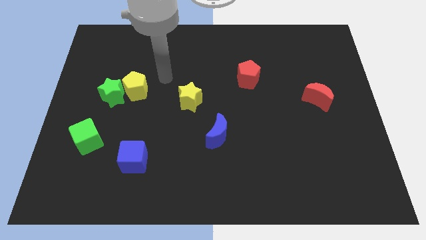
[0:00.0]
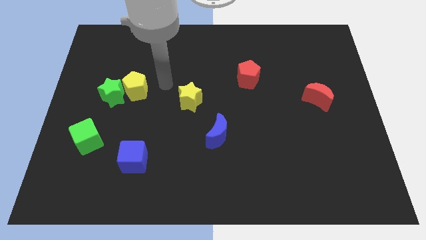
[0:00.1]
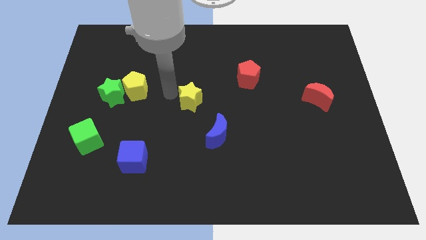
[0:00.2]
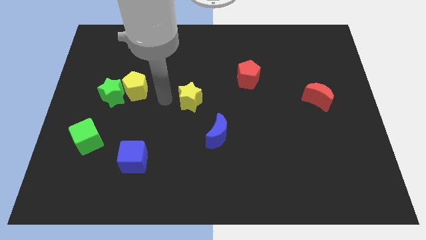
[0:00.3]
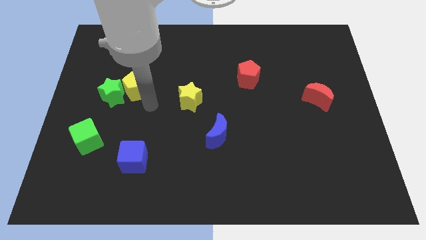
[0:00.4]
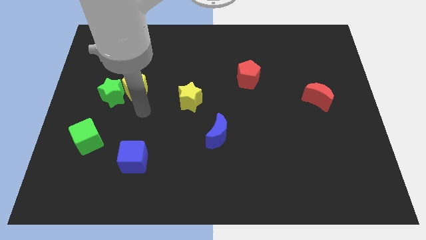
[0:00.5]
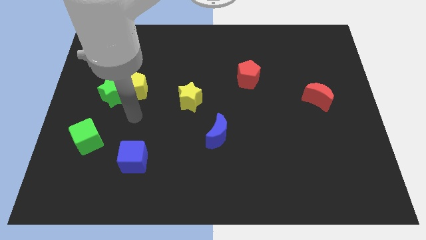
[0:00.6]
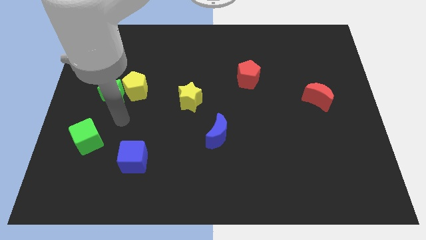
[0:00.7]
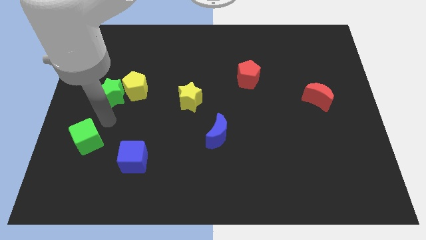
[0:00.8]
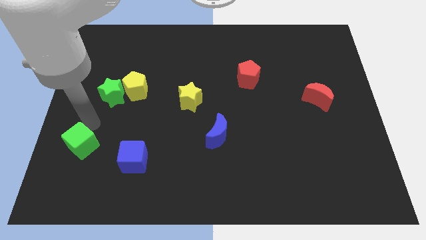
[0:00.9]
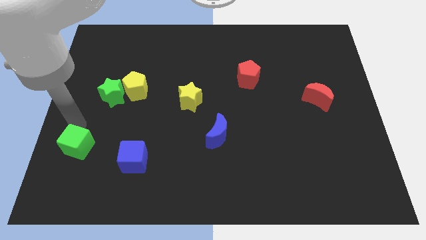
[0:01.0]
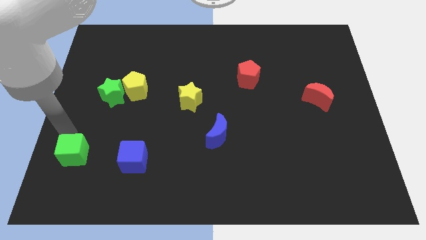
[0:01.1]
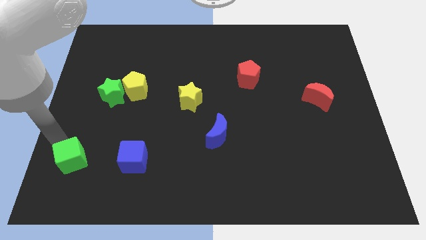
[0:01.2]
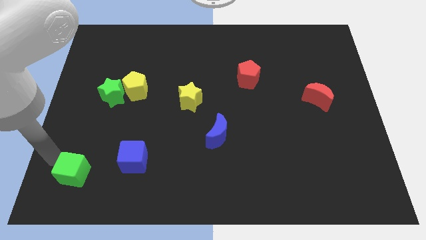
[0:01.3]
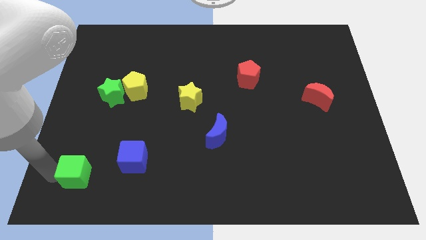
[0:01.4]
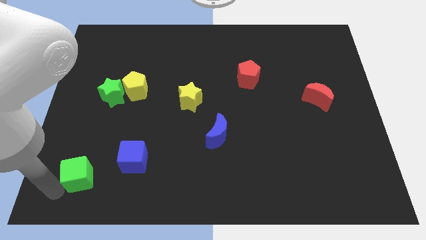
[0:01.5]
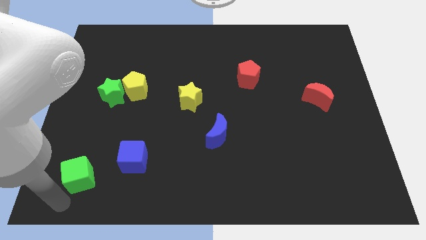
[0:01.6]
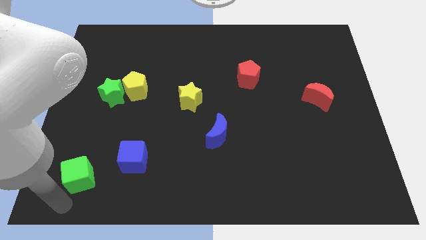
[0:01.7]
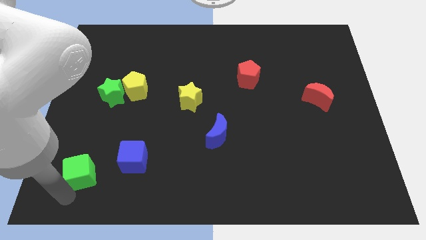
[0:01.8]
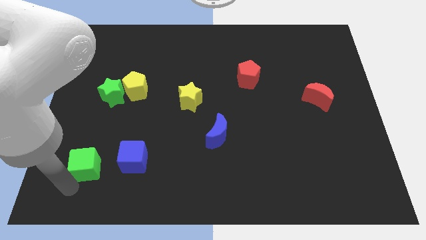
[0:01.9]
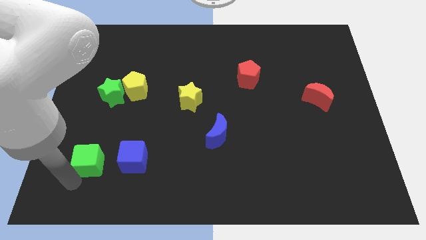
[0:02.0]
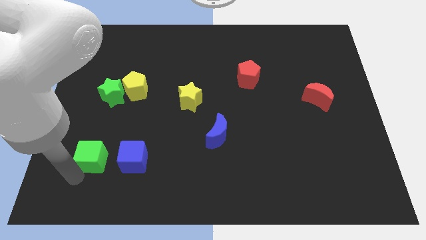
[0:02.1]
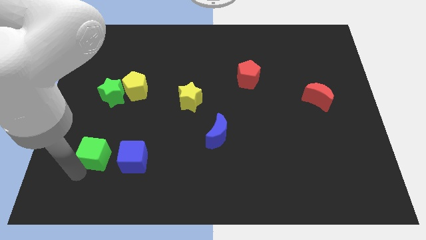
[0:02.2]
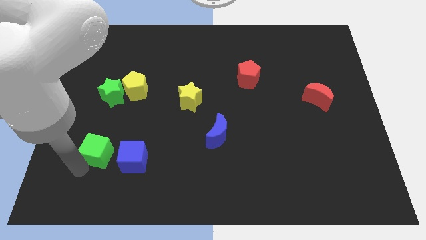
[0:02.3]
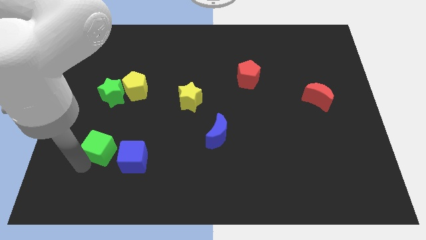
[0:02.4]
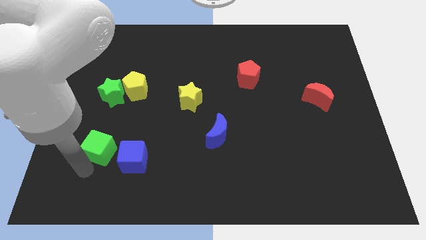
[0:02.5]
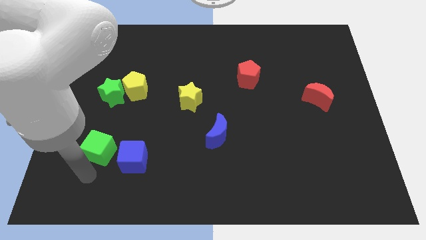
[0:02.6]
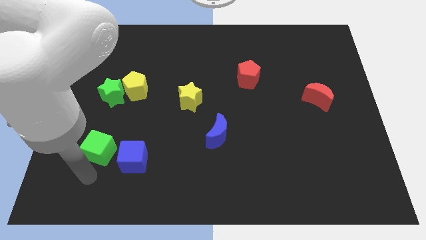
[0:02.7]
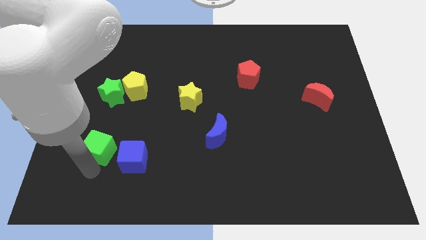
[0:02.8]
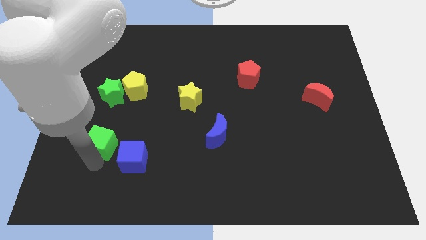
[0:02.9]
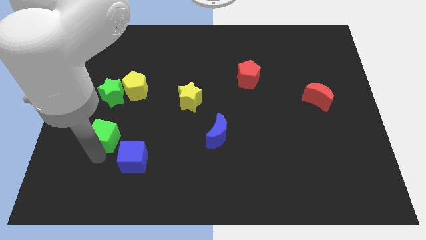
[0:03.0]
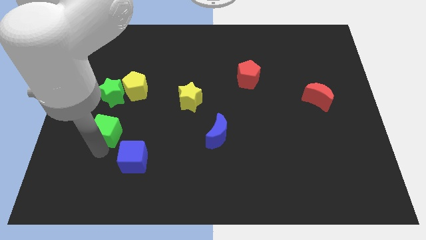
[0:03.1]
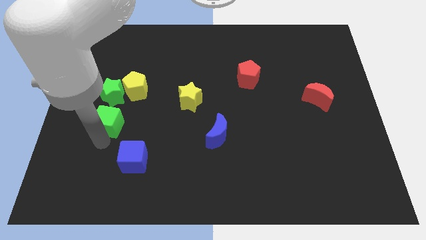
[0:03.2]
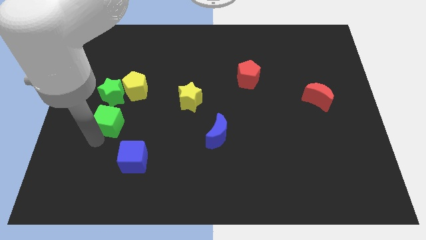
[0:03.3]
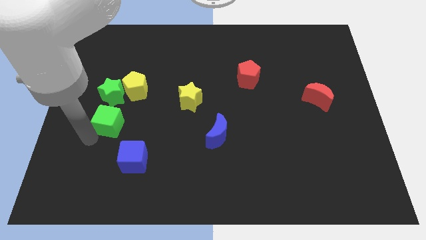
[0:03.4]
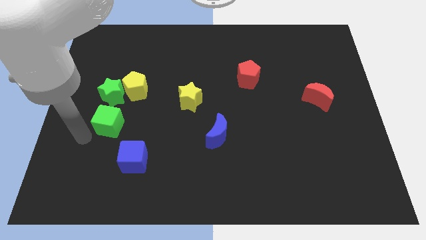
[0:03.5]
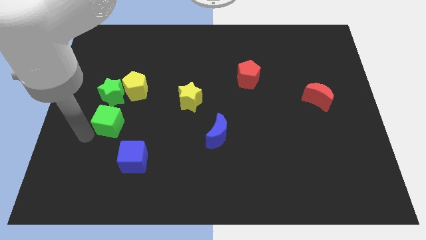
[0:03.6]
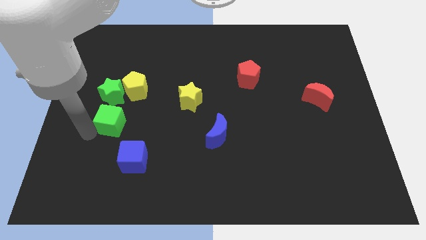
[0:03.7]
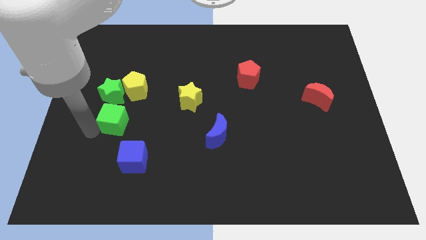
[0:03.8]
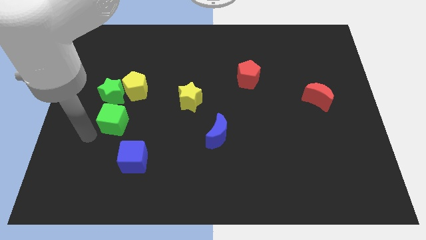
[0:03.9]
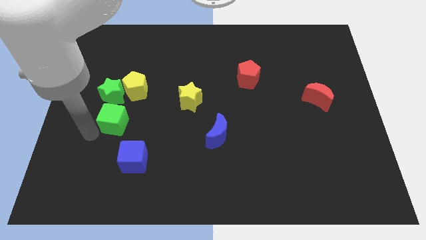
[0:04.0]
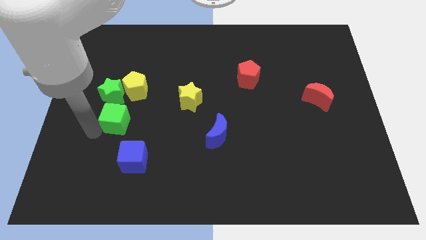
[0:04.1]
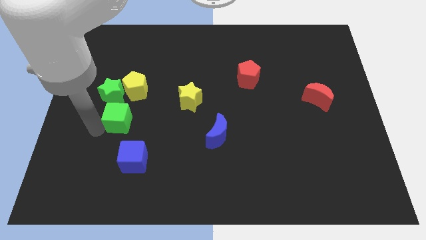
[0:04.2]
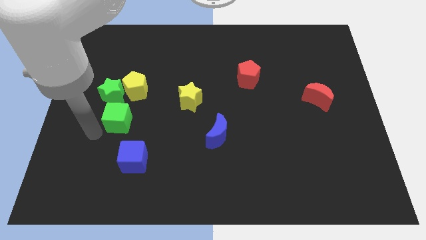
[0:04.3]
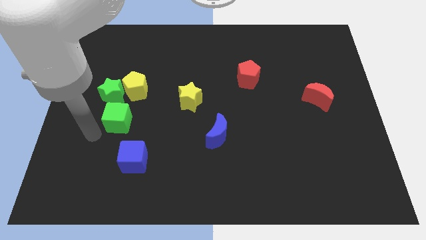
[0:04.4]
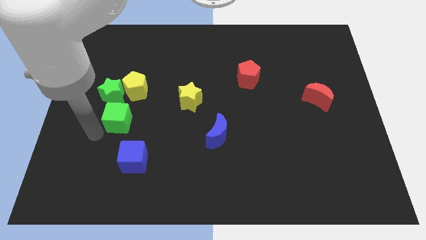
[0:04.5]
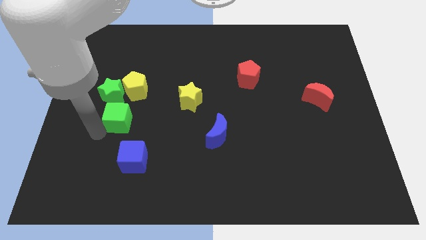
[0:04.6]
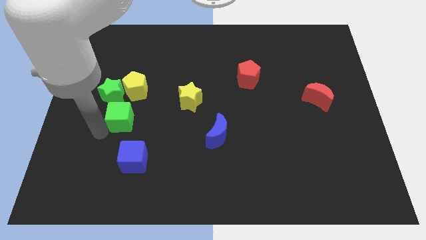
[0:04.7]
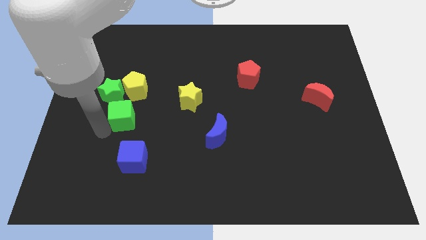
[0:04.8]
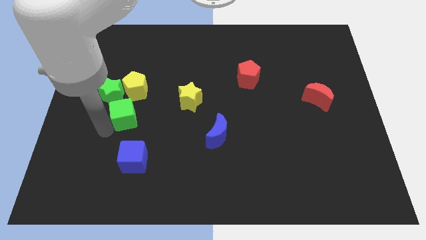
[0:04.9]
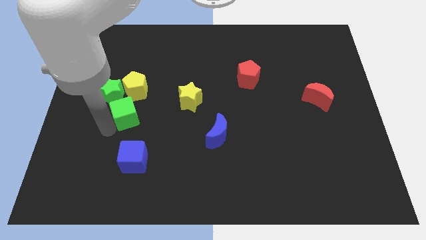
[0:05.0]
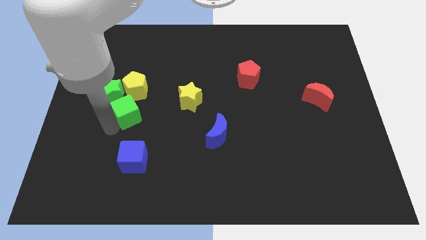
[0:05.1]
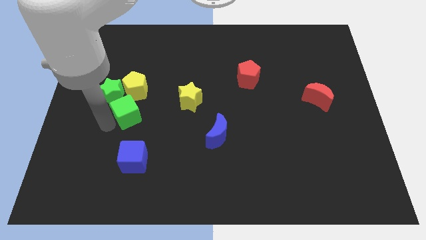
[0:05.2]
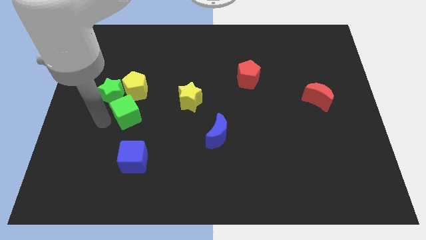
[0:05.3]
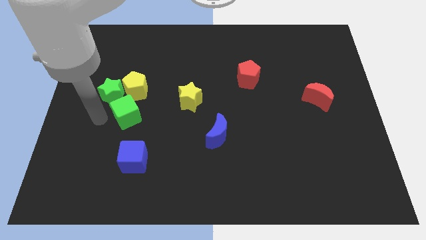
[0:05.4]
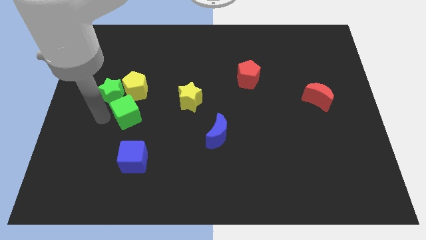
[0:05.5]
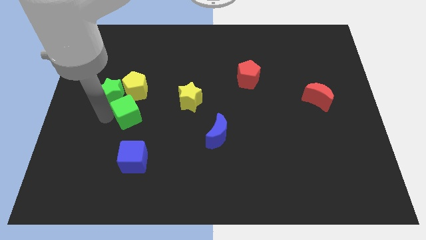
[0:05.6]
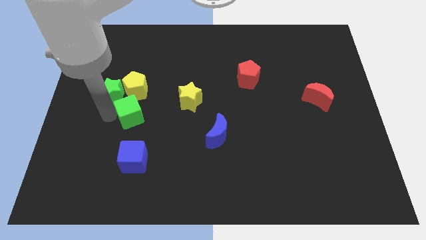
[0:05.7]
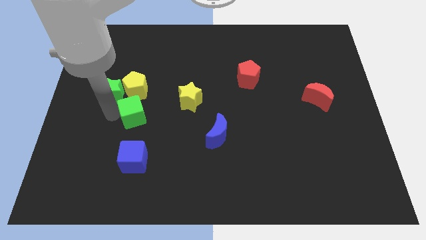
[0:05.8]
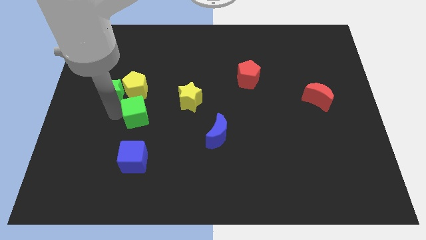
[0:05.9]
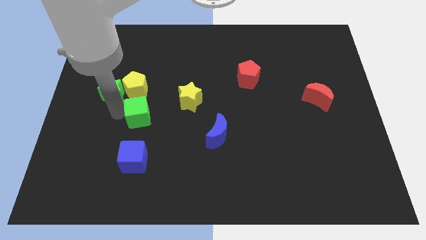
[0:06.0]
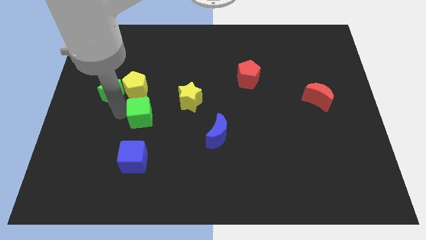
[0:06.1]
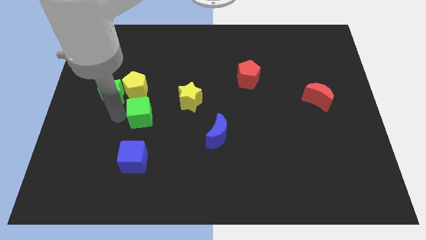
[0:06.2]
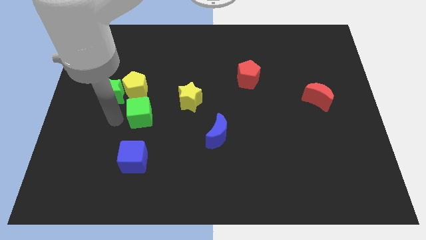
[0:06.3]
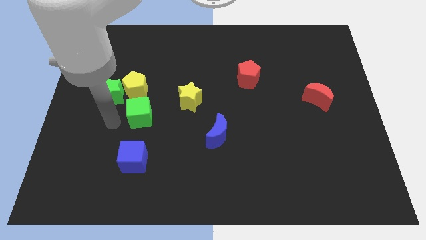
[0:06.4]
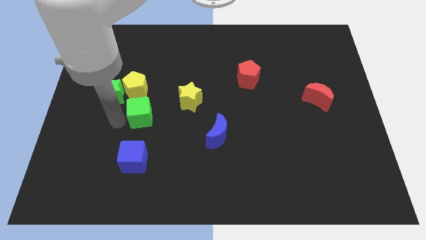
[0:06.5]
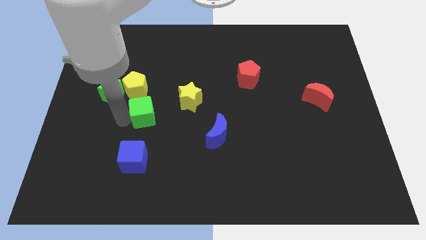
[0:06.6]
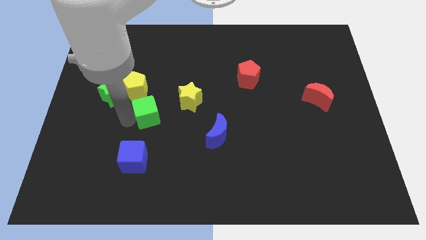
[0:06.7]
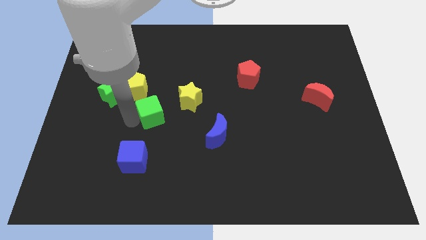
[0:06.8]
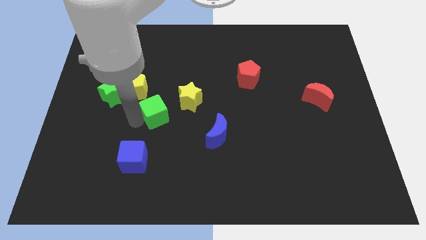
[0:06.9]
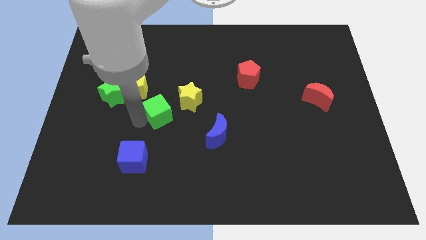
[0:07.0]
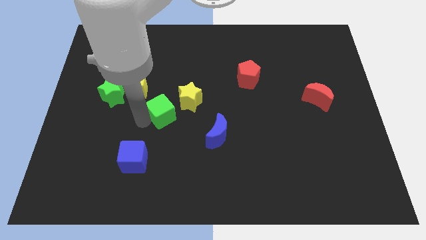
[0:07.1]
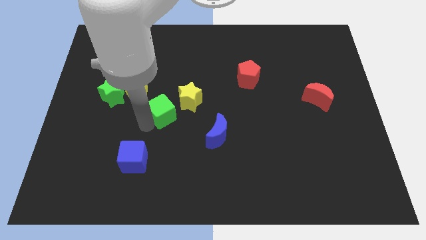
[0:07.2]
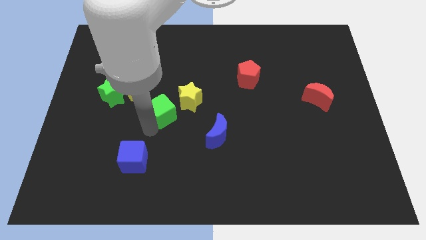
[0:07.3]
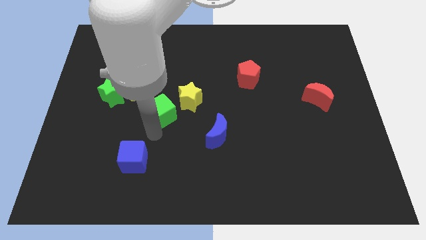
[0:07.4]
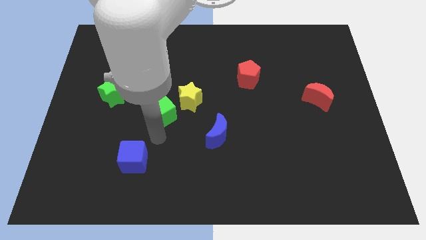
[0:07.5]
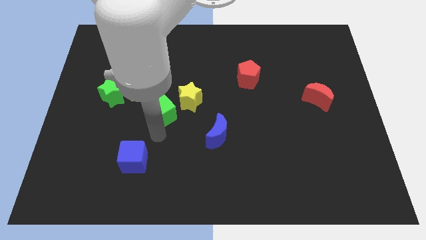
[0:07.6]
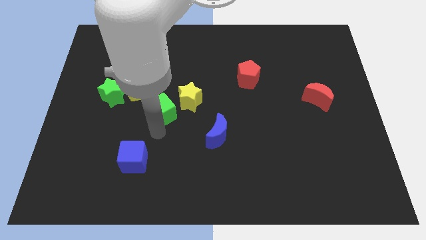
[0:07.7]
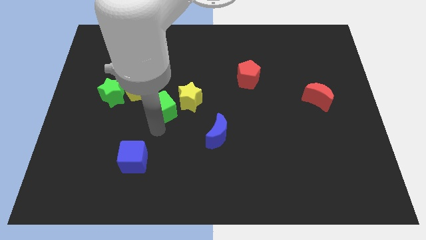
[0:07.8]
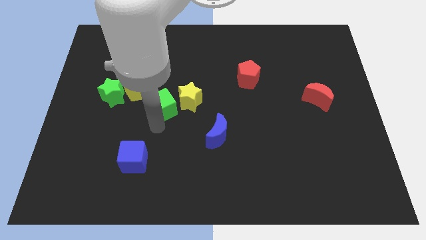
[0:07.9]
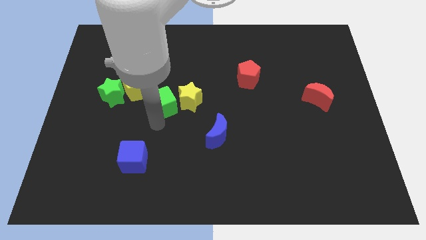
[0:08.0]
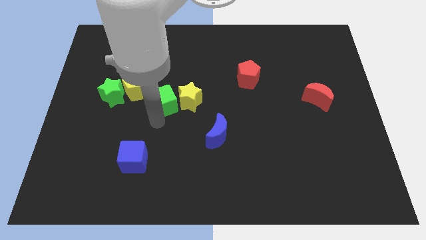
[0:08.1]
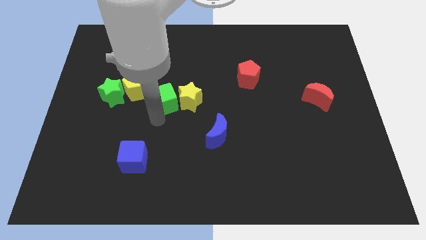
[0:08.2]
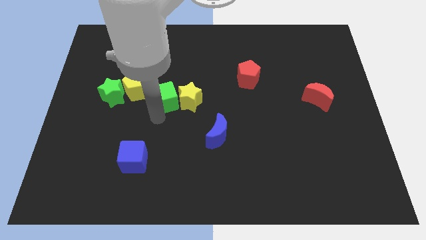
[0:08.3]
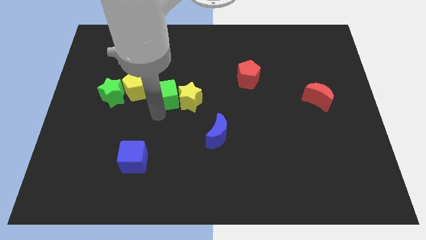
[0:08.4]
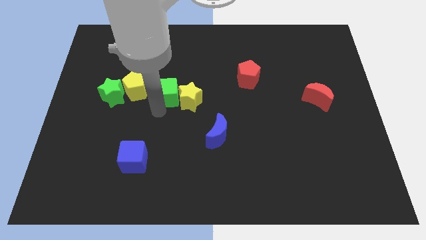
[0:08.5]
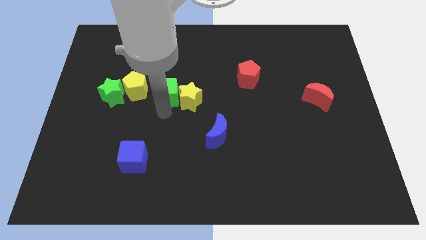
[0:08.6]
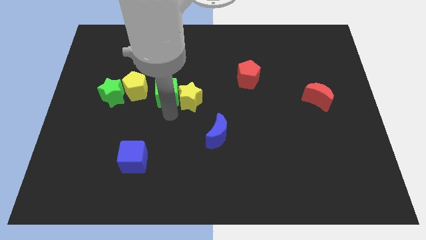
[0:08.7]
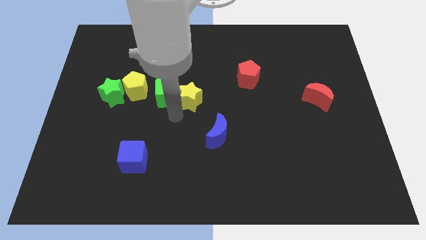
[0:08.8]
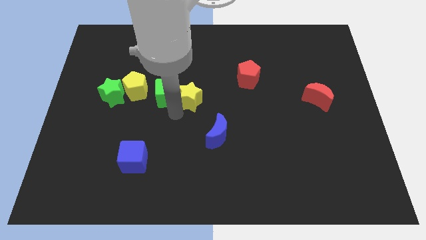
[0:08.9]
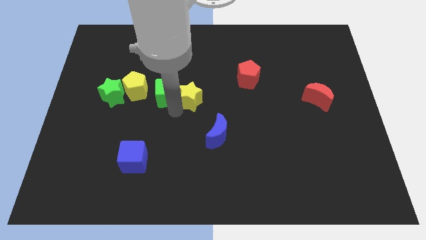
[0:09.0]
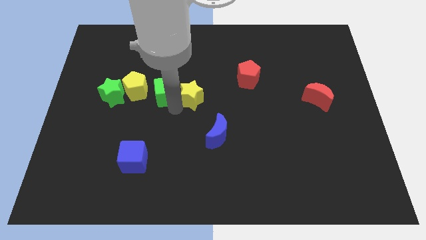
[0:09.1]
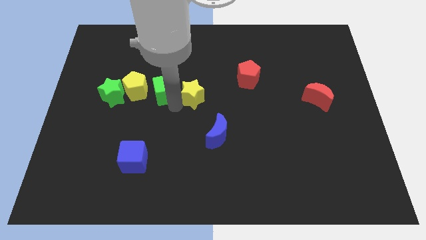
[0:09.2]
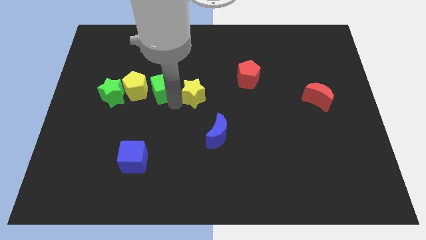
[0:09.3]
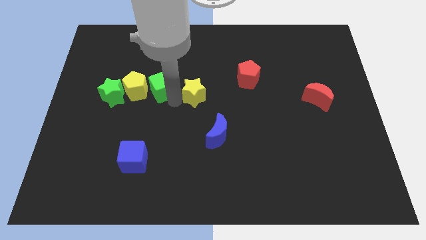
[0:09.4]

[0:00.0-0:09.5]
push the green cube to the top right of the yellow pentagon
